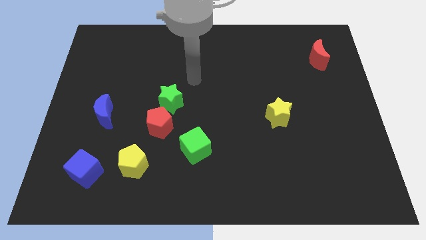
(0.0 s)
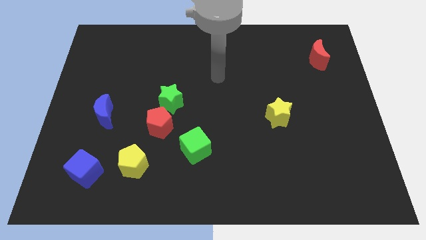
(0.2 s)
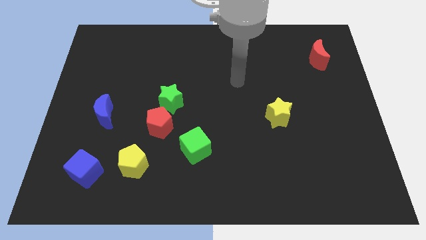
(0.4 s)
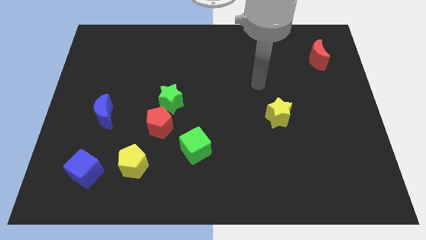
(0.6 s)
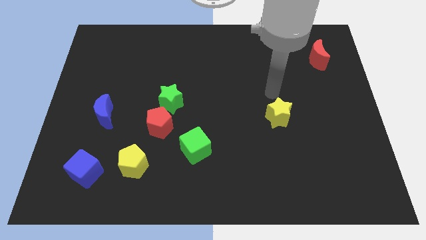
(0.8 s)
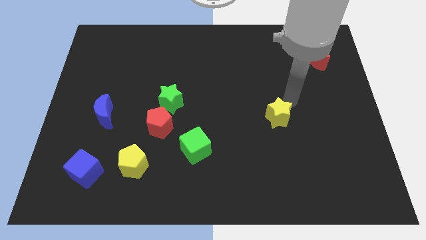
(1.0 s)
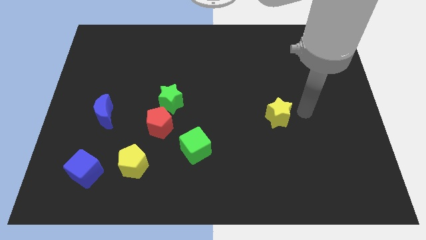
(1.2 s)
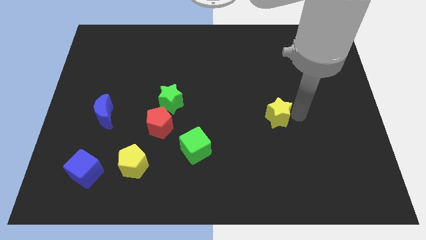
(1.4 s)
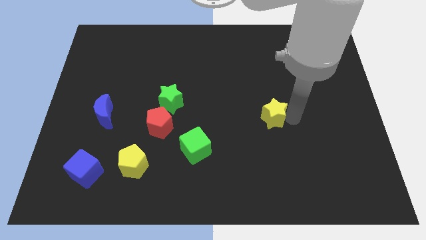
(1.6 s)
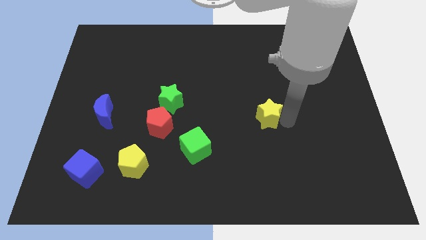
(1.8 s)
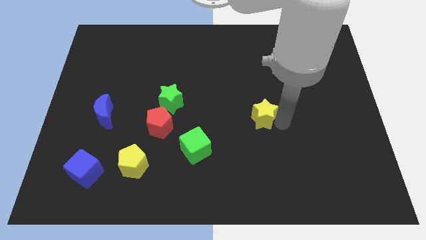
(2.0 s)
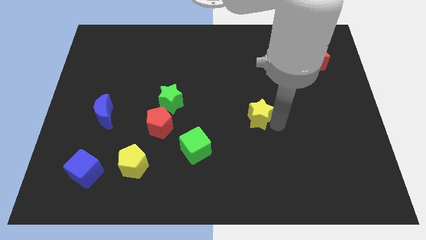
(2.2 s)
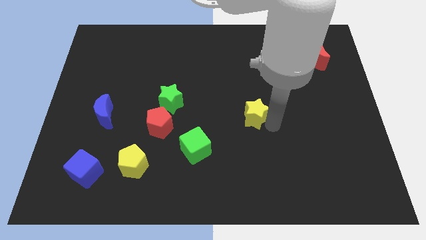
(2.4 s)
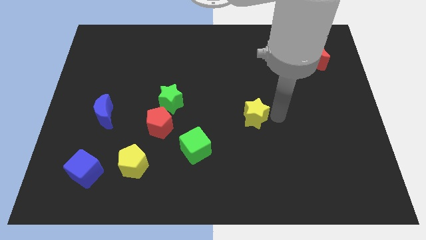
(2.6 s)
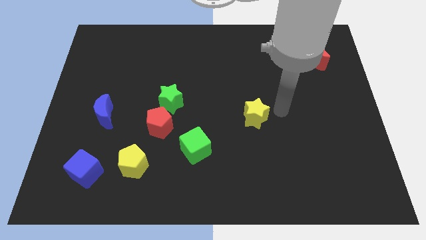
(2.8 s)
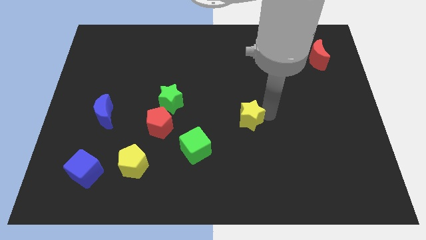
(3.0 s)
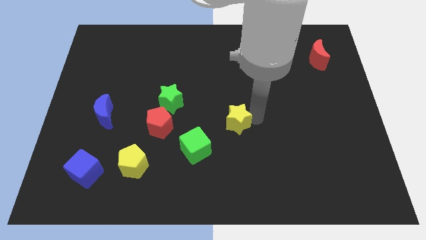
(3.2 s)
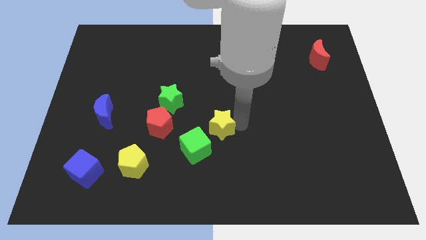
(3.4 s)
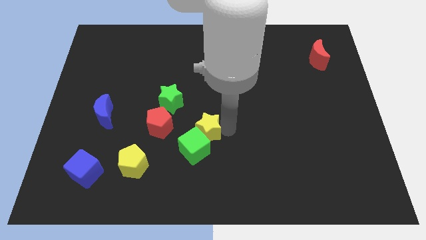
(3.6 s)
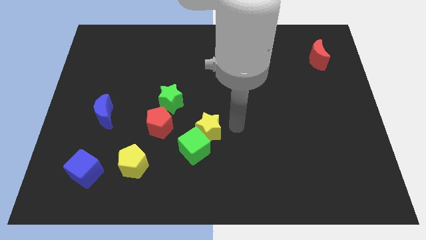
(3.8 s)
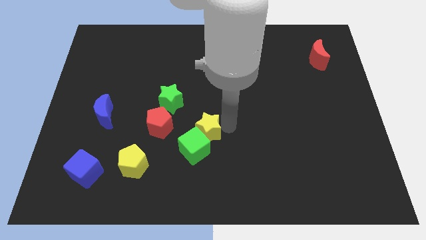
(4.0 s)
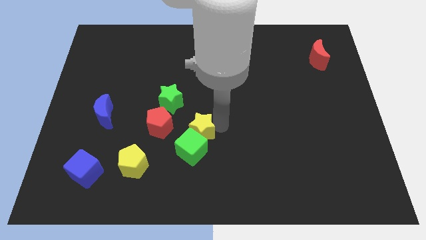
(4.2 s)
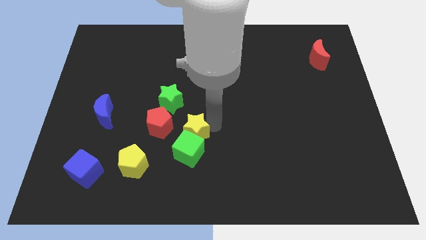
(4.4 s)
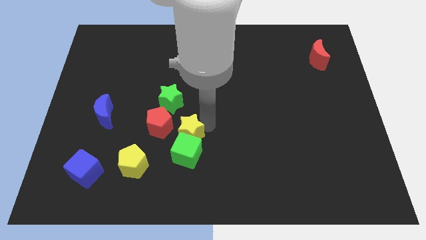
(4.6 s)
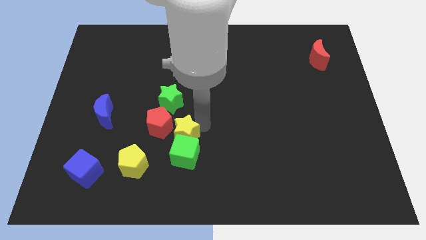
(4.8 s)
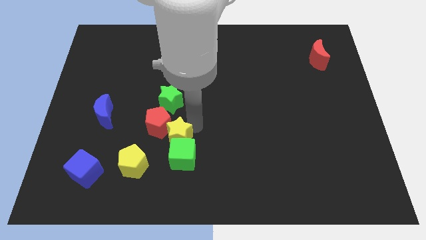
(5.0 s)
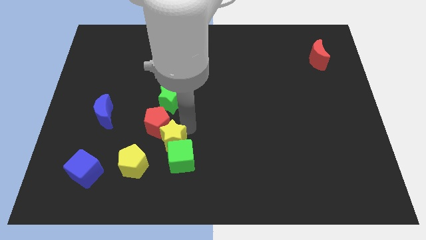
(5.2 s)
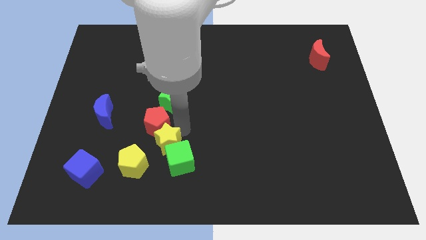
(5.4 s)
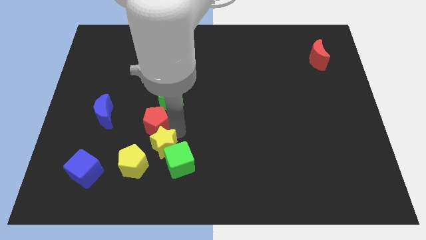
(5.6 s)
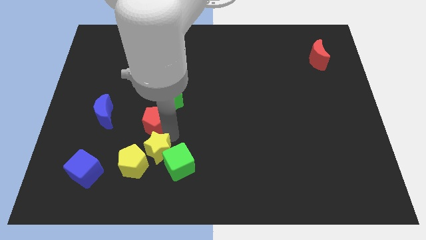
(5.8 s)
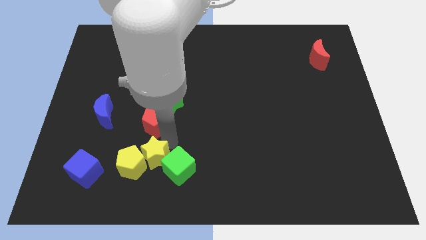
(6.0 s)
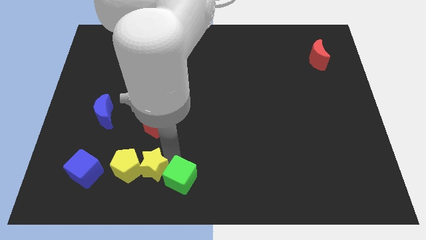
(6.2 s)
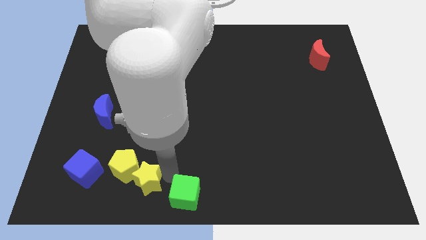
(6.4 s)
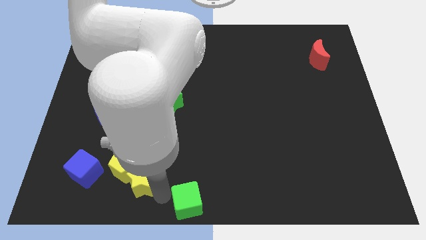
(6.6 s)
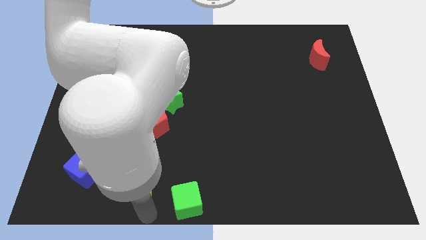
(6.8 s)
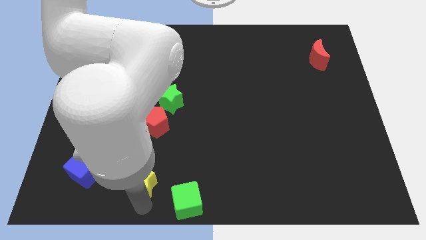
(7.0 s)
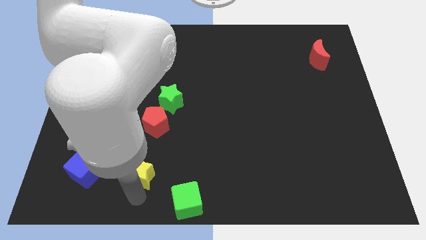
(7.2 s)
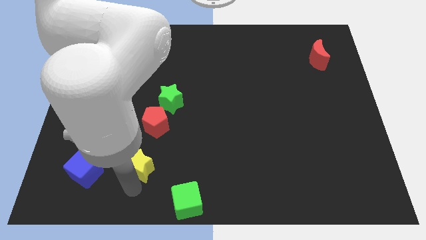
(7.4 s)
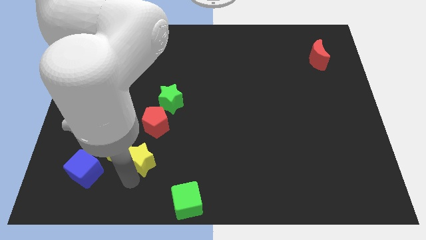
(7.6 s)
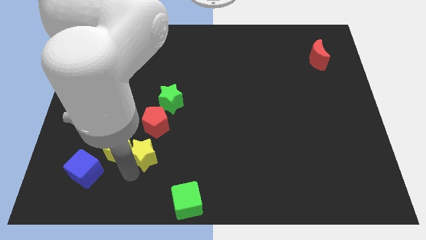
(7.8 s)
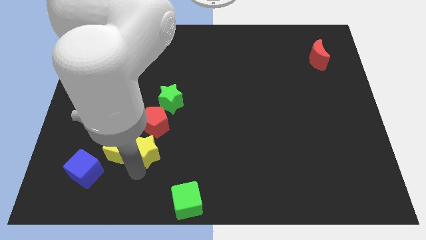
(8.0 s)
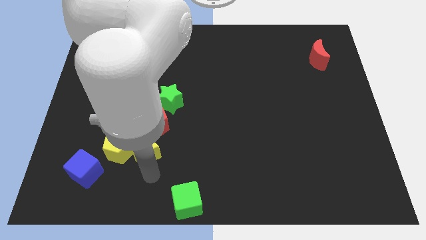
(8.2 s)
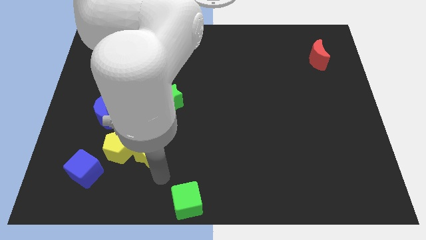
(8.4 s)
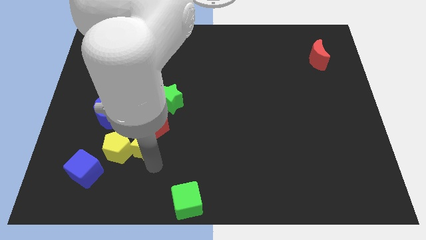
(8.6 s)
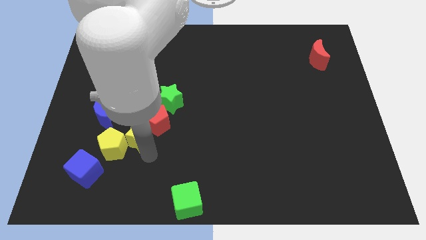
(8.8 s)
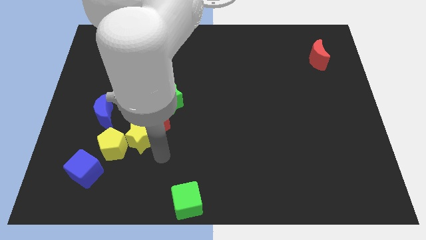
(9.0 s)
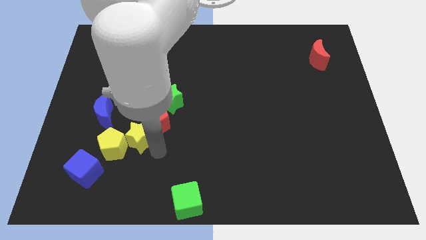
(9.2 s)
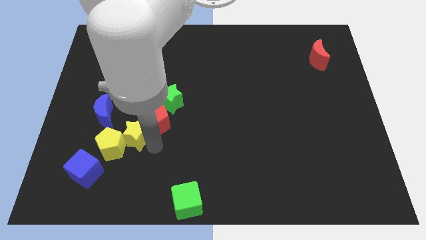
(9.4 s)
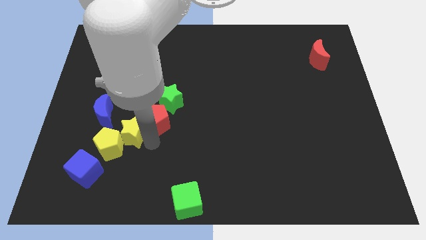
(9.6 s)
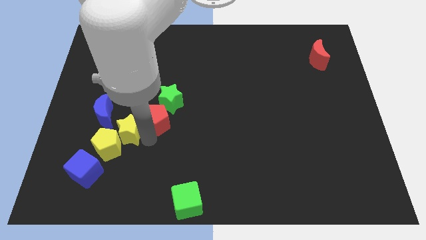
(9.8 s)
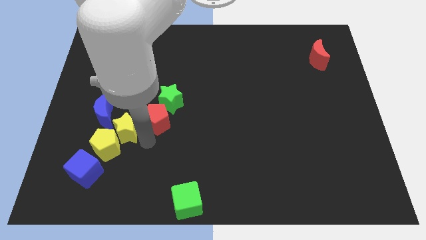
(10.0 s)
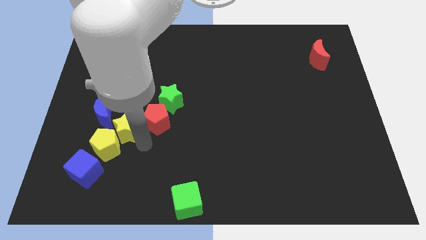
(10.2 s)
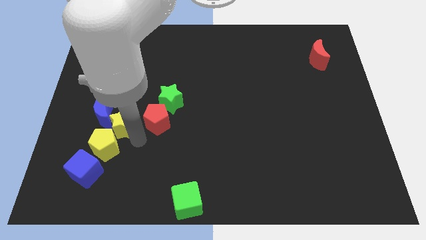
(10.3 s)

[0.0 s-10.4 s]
slide the yellow star towards the blue moon

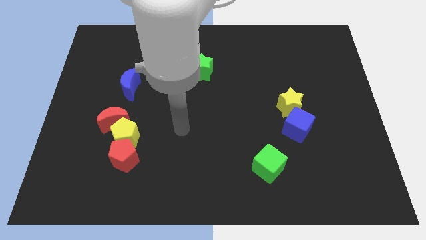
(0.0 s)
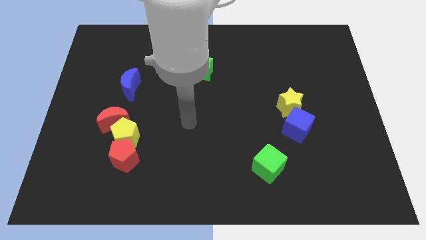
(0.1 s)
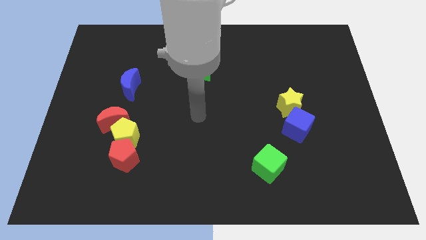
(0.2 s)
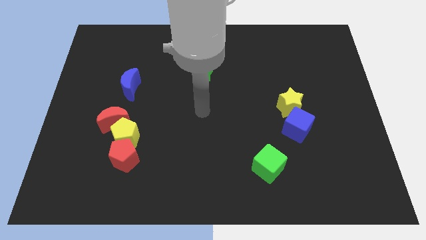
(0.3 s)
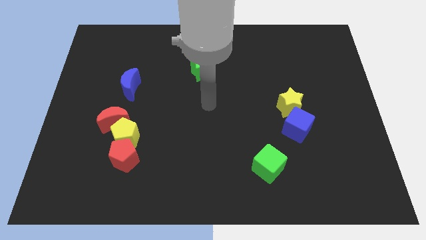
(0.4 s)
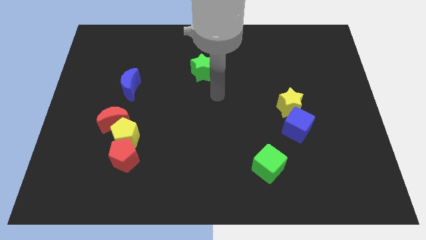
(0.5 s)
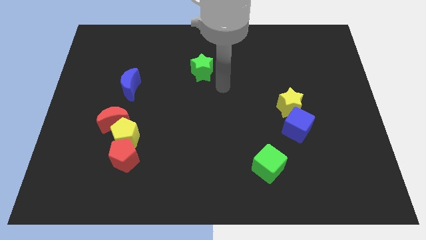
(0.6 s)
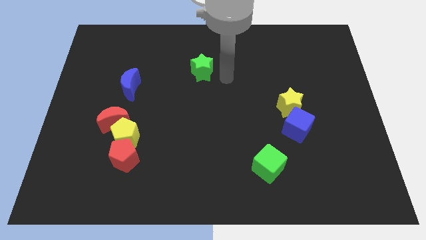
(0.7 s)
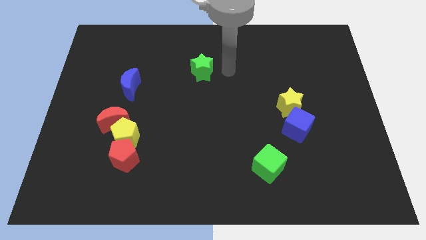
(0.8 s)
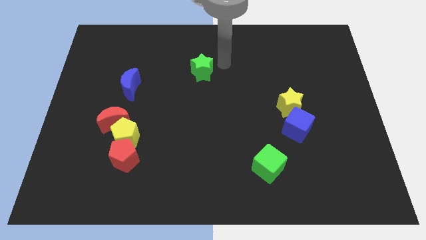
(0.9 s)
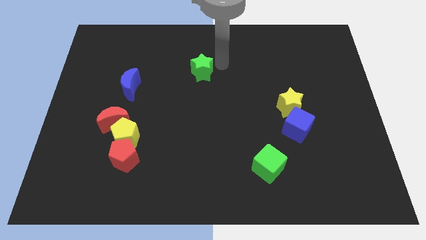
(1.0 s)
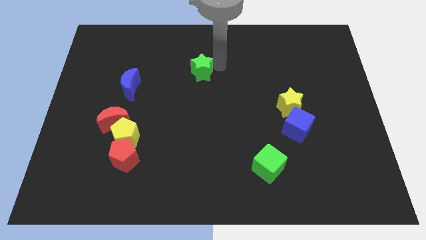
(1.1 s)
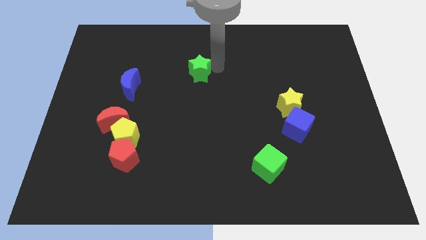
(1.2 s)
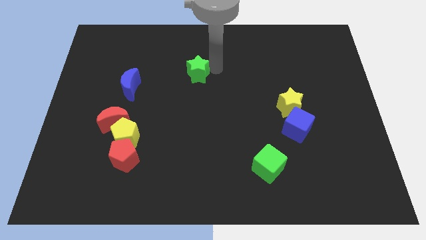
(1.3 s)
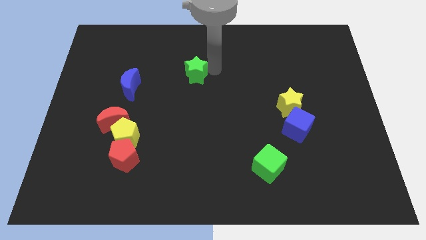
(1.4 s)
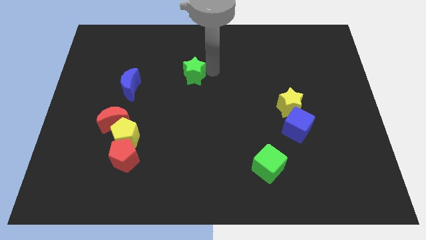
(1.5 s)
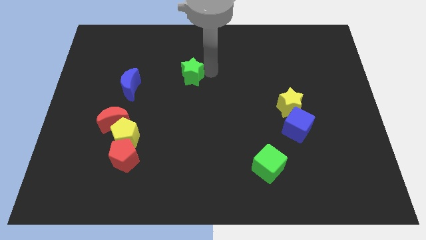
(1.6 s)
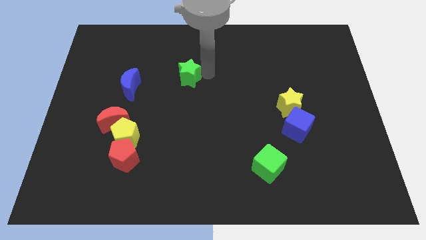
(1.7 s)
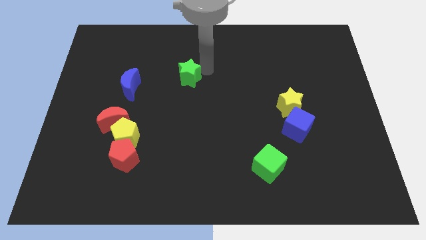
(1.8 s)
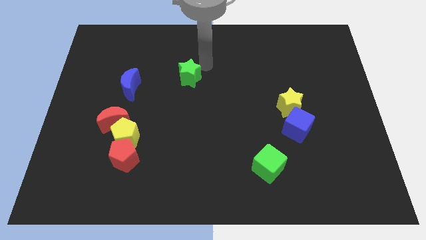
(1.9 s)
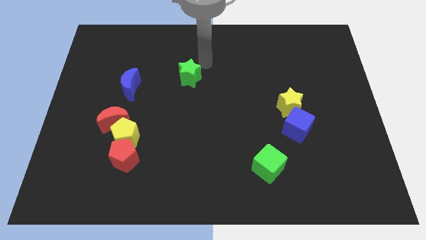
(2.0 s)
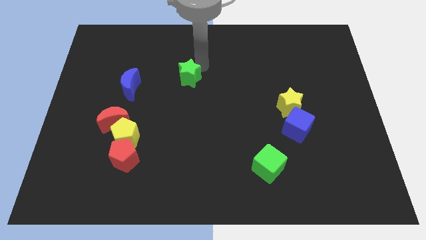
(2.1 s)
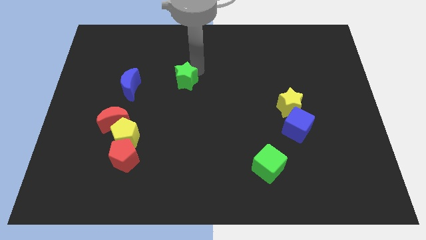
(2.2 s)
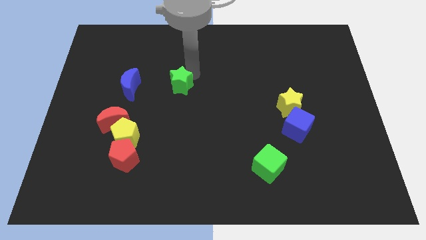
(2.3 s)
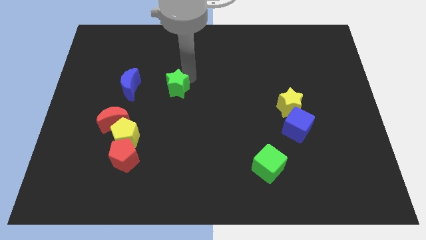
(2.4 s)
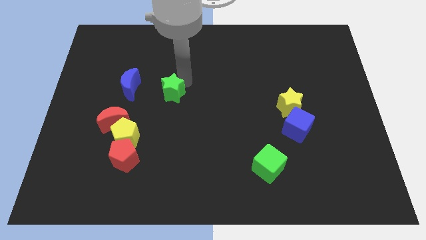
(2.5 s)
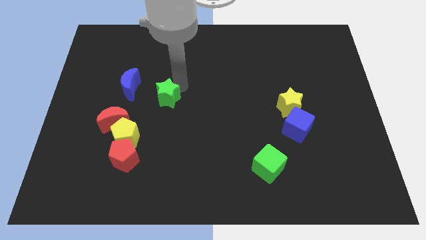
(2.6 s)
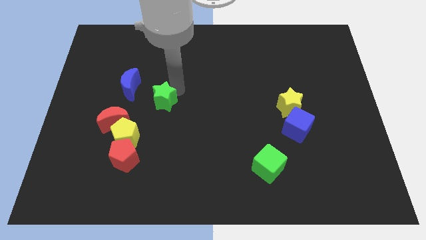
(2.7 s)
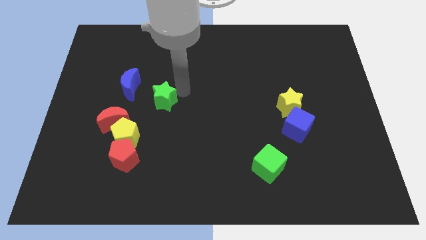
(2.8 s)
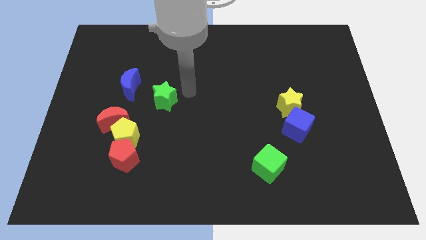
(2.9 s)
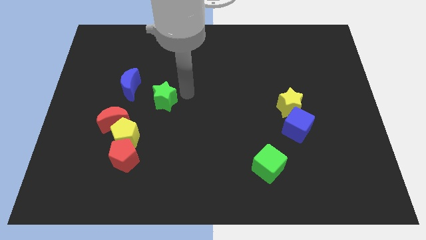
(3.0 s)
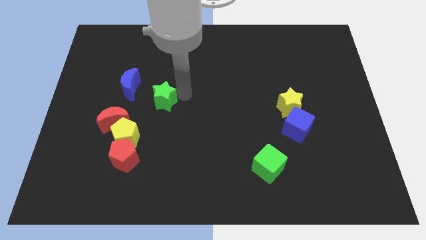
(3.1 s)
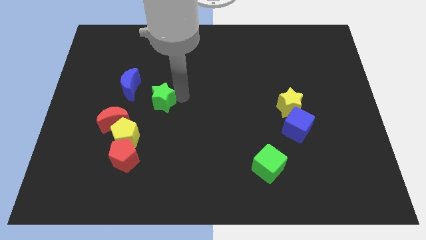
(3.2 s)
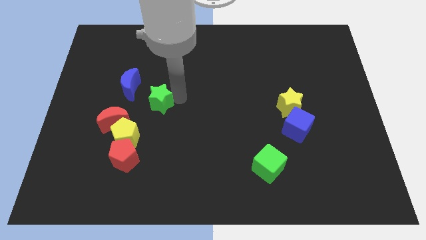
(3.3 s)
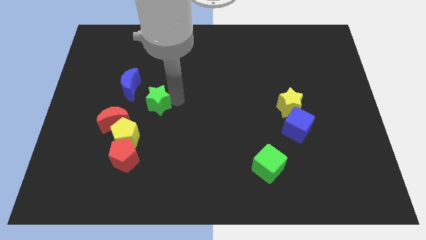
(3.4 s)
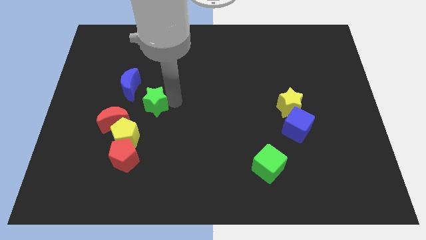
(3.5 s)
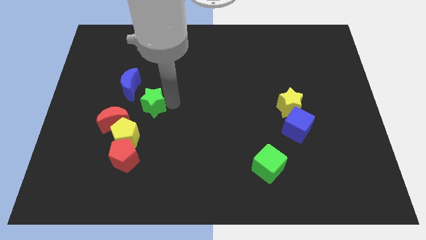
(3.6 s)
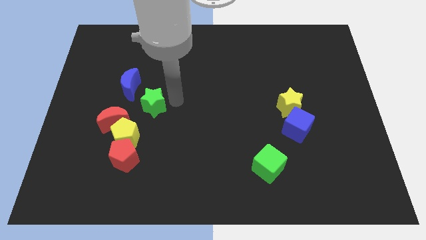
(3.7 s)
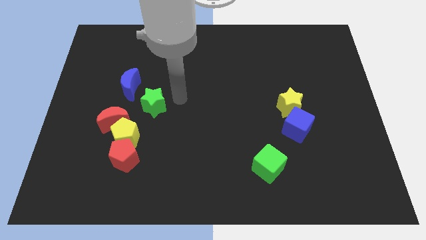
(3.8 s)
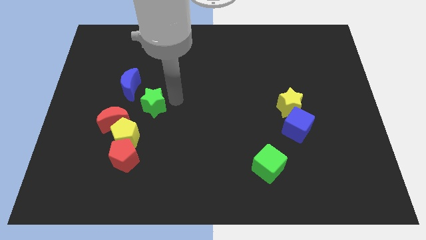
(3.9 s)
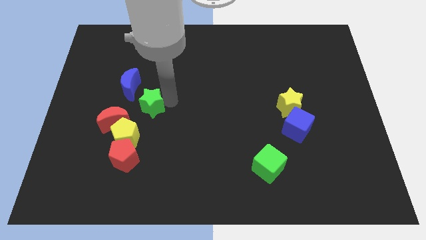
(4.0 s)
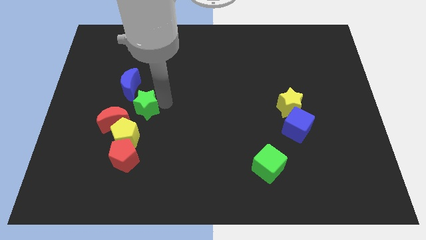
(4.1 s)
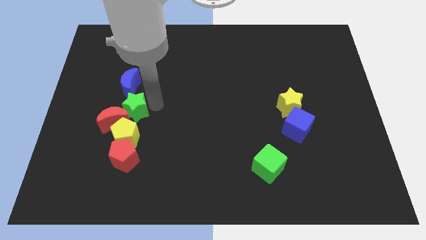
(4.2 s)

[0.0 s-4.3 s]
push the green star next to the red moon
